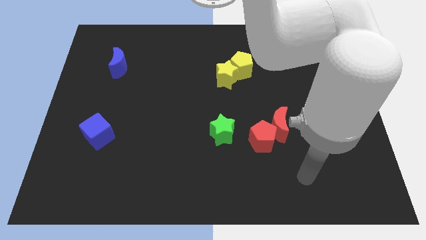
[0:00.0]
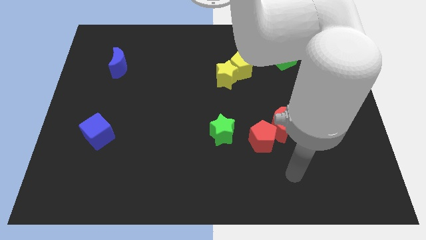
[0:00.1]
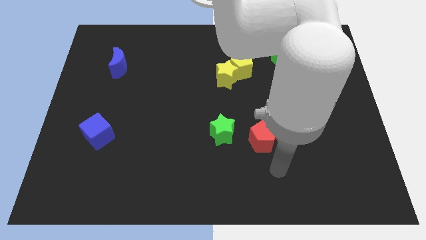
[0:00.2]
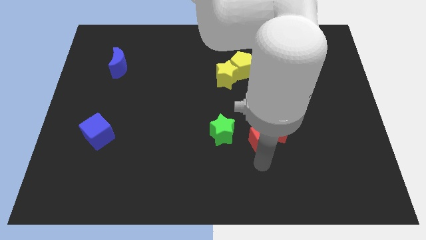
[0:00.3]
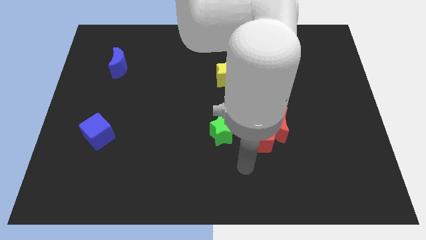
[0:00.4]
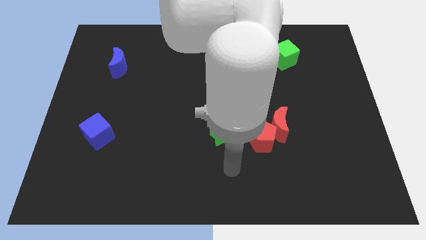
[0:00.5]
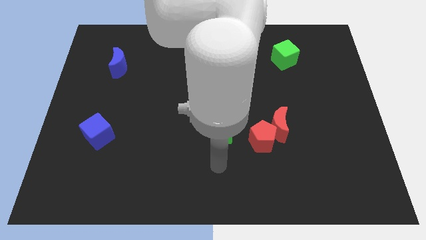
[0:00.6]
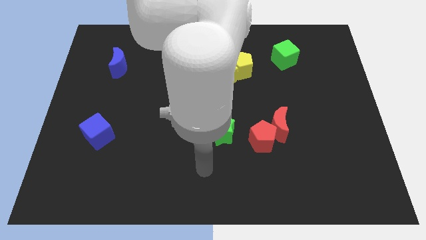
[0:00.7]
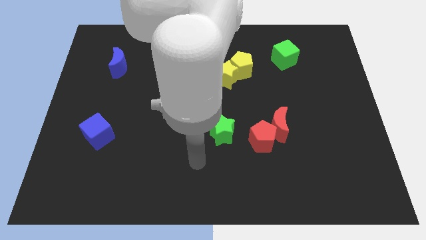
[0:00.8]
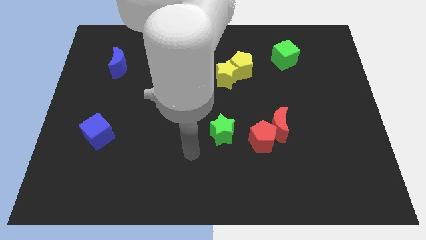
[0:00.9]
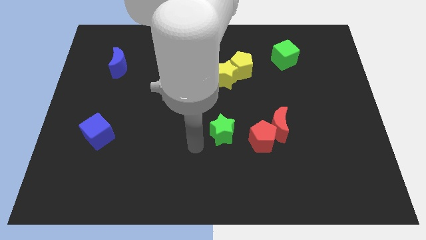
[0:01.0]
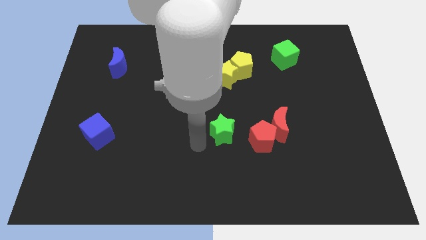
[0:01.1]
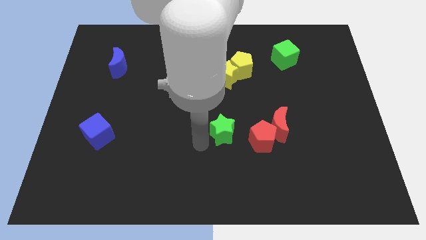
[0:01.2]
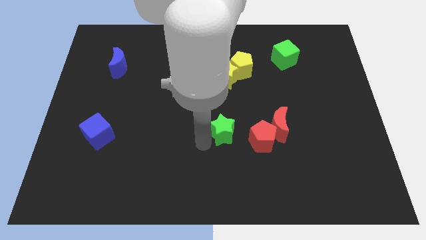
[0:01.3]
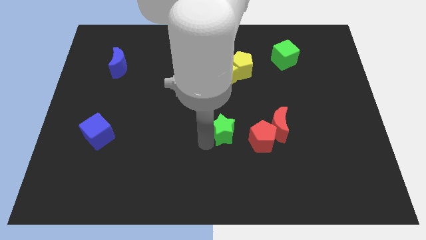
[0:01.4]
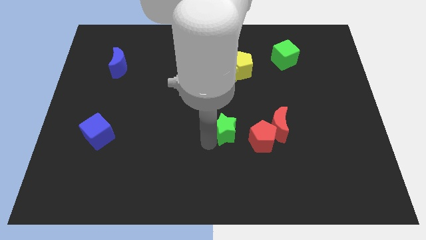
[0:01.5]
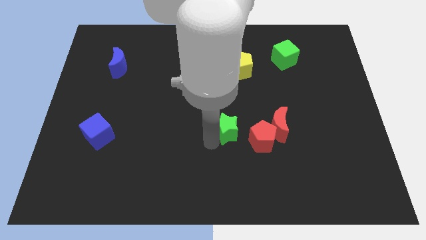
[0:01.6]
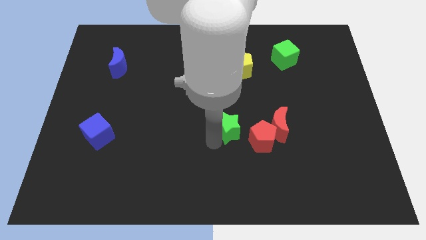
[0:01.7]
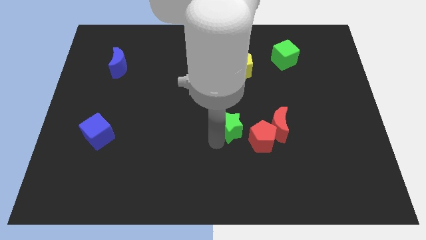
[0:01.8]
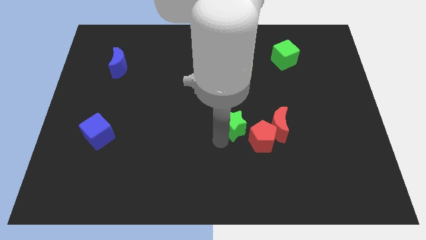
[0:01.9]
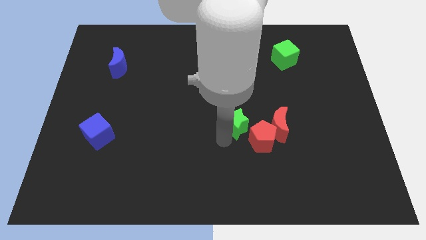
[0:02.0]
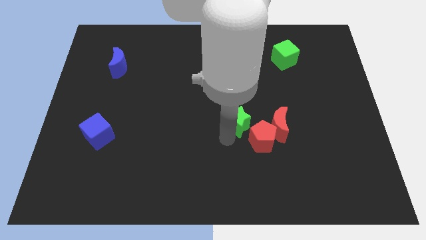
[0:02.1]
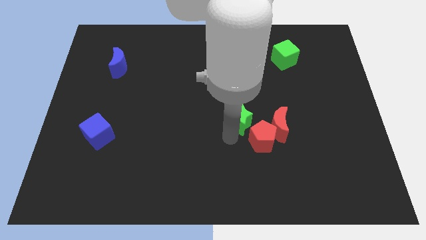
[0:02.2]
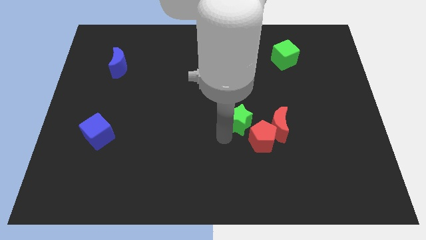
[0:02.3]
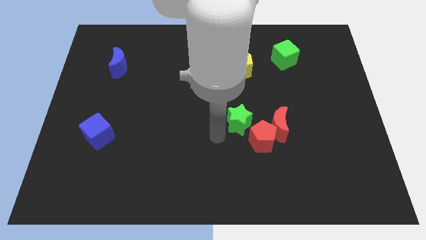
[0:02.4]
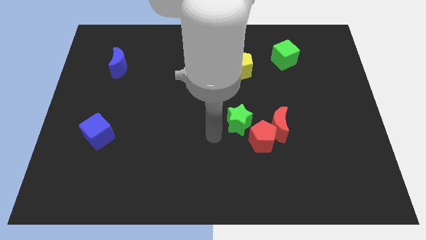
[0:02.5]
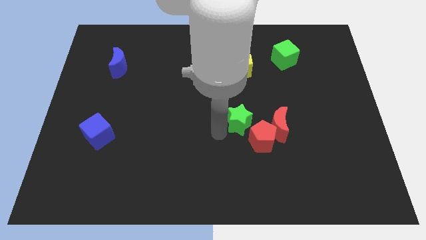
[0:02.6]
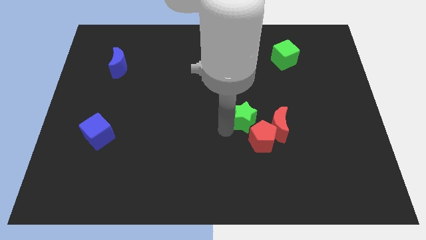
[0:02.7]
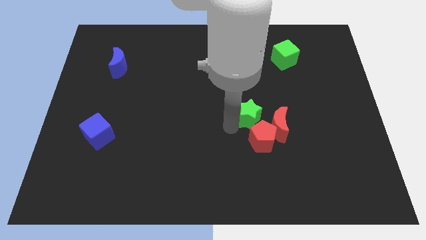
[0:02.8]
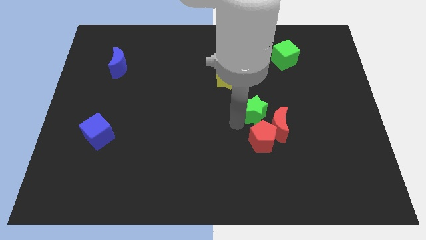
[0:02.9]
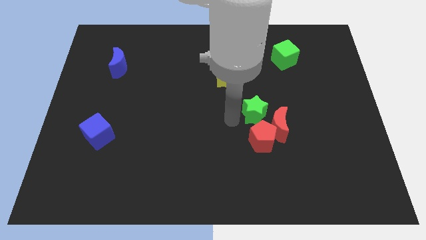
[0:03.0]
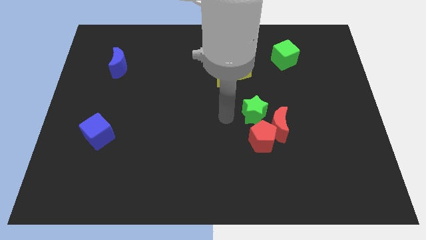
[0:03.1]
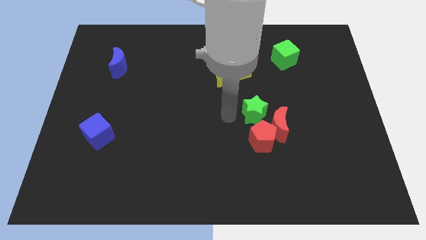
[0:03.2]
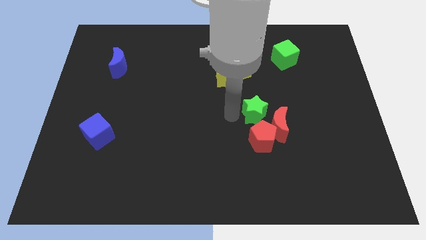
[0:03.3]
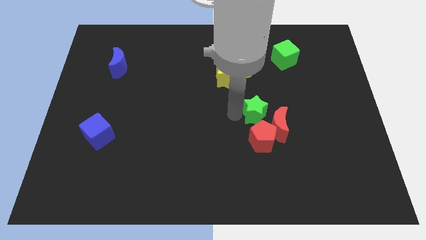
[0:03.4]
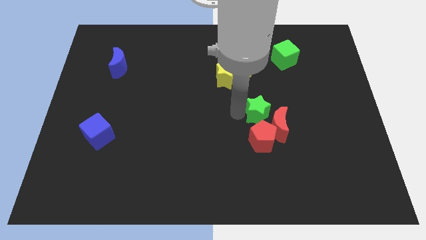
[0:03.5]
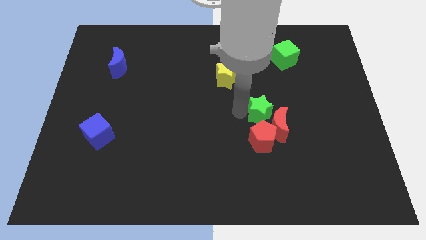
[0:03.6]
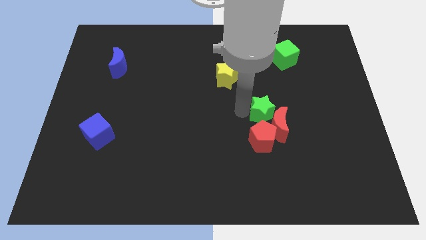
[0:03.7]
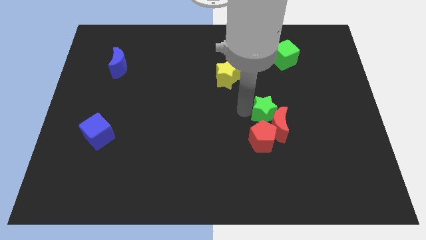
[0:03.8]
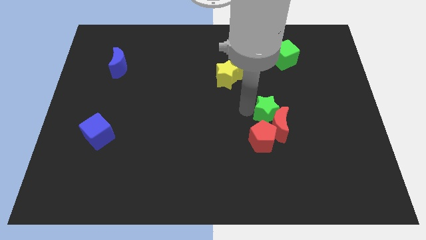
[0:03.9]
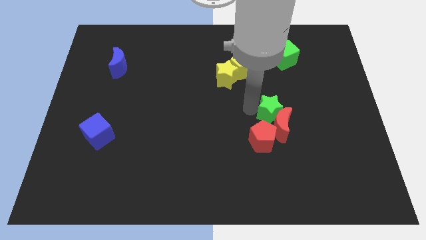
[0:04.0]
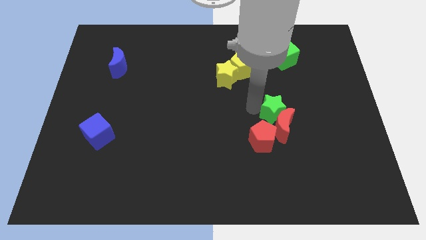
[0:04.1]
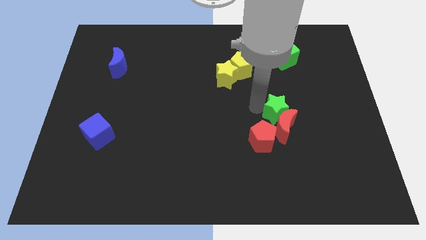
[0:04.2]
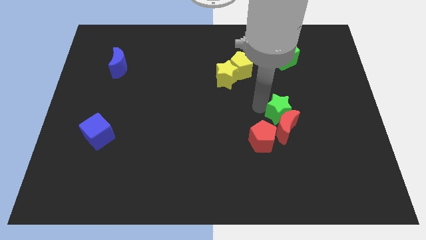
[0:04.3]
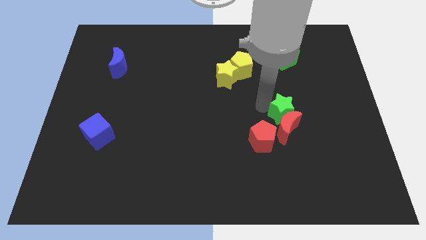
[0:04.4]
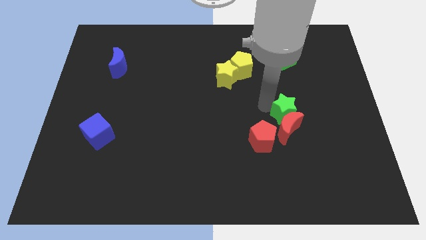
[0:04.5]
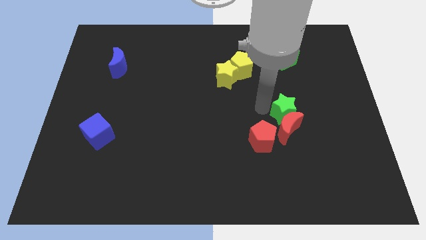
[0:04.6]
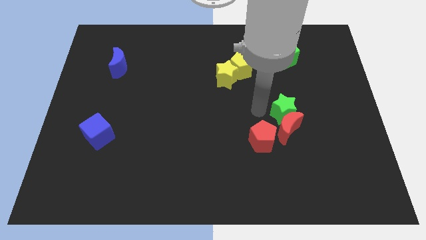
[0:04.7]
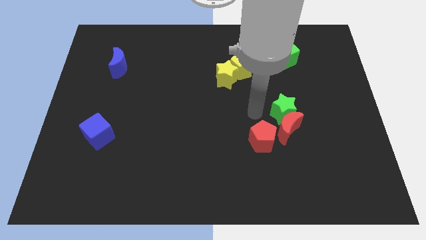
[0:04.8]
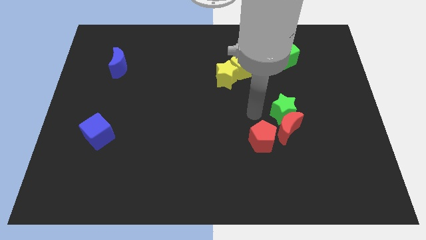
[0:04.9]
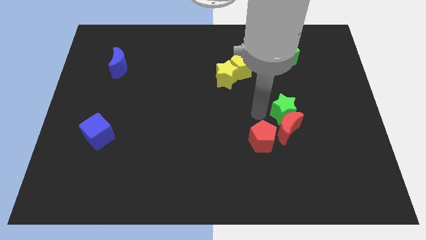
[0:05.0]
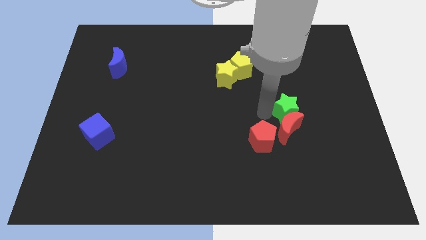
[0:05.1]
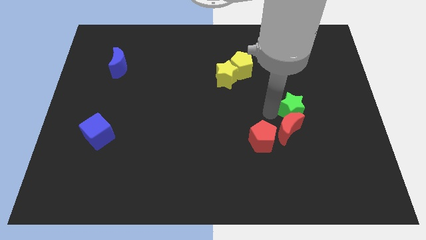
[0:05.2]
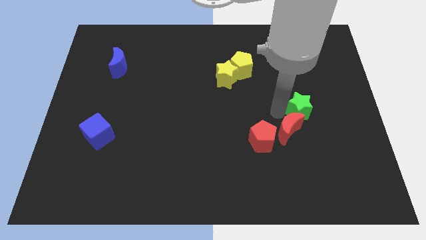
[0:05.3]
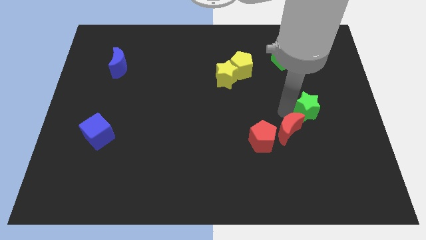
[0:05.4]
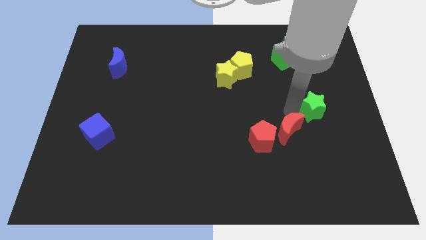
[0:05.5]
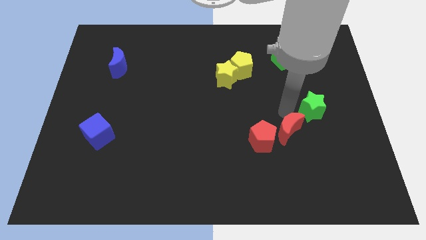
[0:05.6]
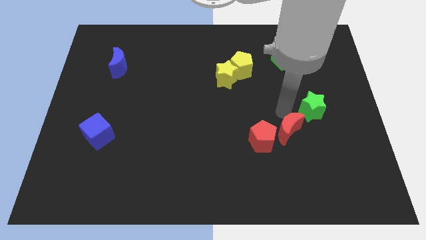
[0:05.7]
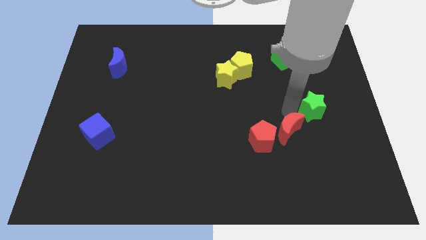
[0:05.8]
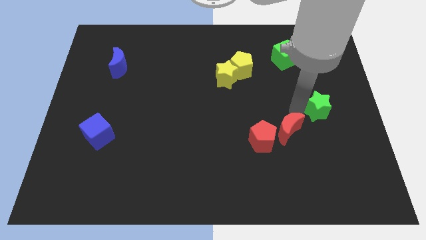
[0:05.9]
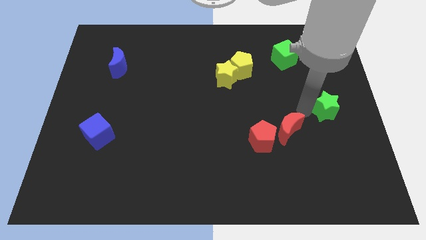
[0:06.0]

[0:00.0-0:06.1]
slide the green star to the center right

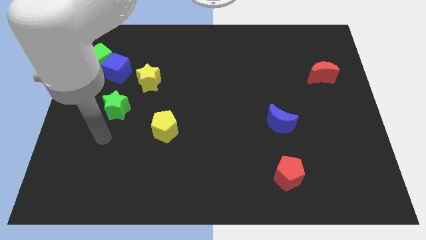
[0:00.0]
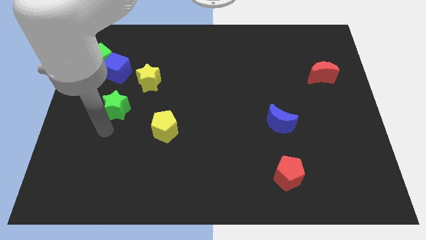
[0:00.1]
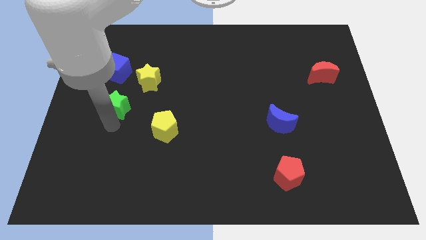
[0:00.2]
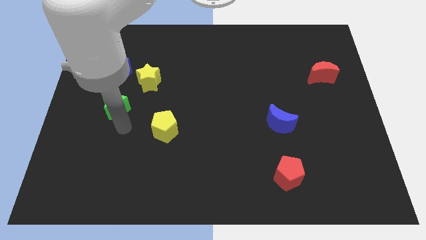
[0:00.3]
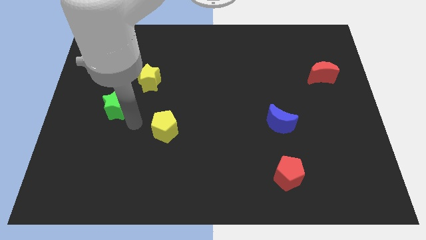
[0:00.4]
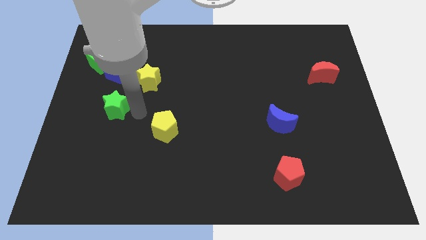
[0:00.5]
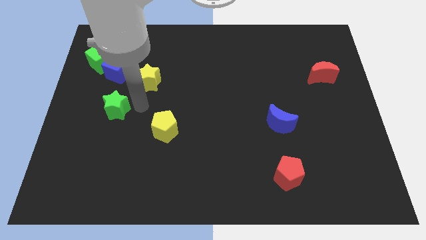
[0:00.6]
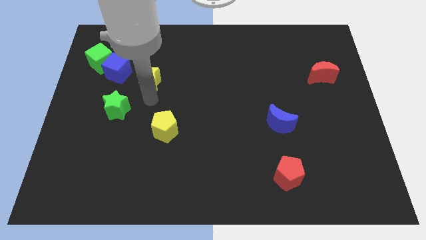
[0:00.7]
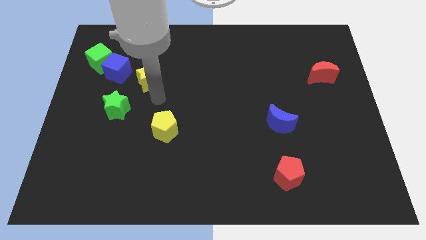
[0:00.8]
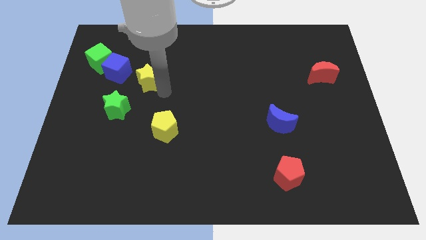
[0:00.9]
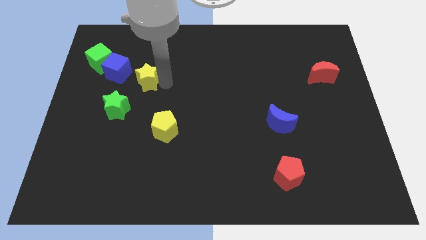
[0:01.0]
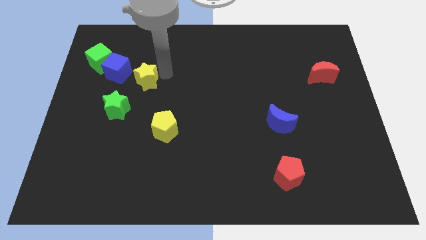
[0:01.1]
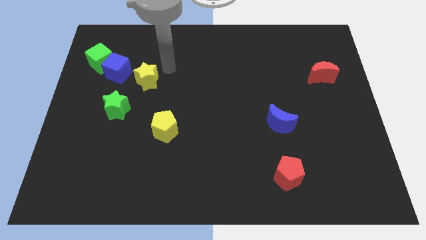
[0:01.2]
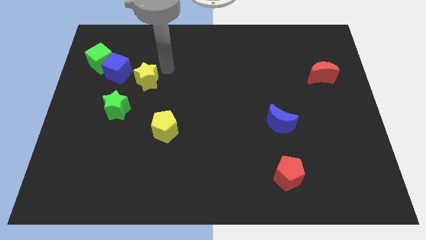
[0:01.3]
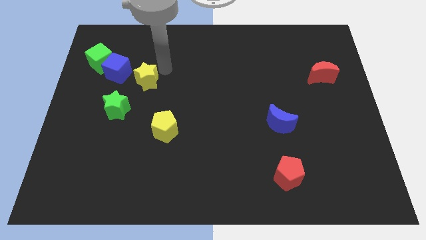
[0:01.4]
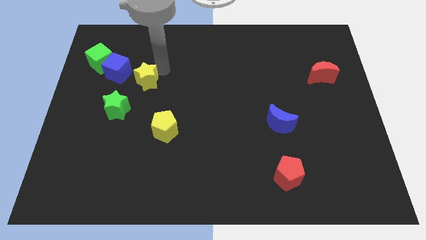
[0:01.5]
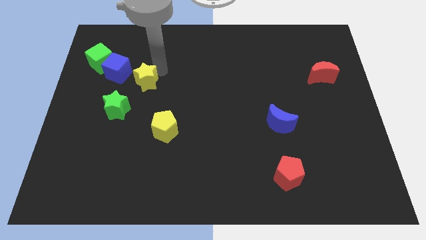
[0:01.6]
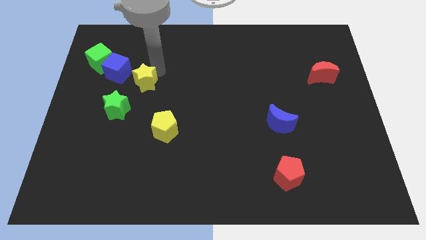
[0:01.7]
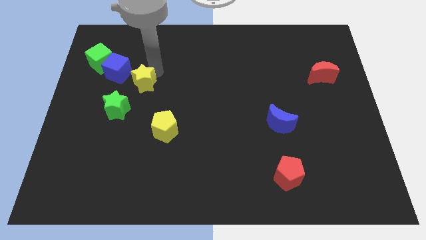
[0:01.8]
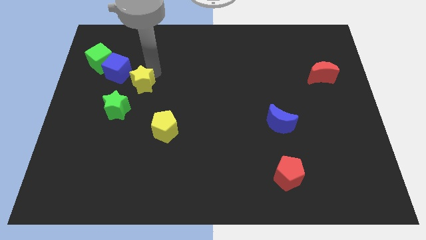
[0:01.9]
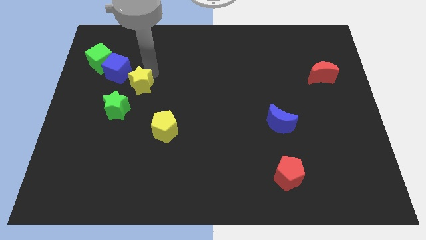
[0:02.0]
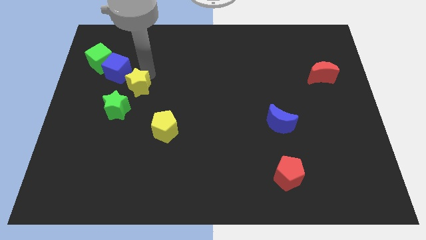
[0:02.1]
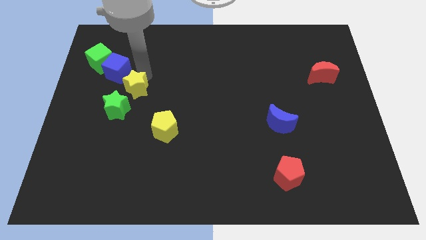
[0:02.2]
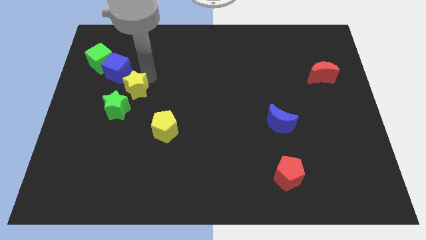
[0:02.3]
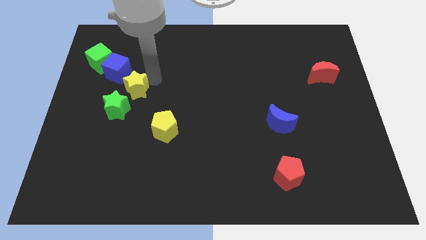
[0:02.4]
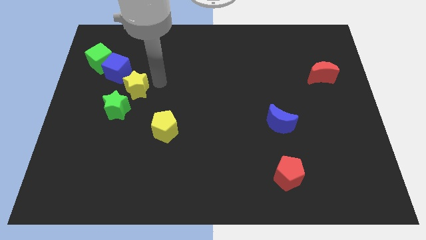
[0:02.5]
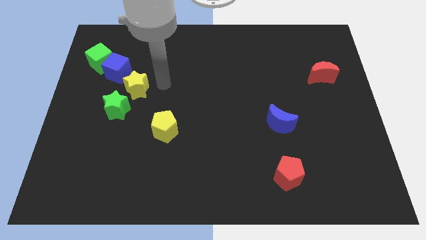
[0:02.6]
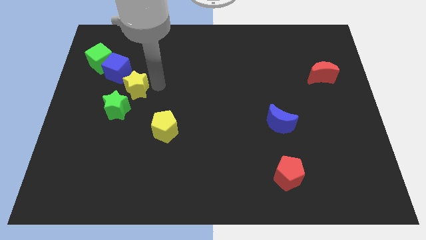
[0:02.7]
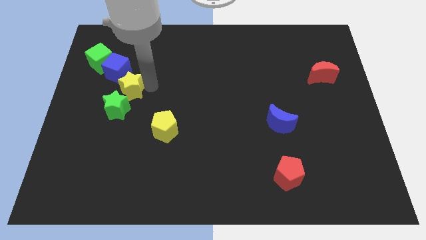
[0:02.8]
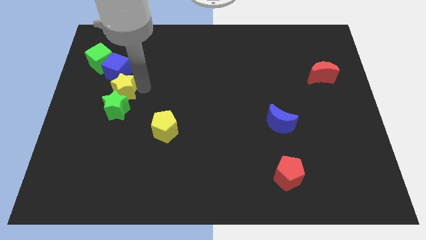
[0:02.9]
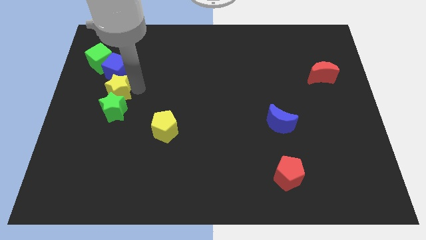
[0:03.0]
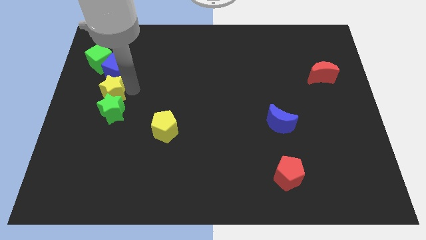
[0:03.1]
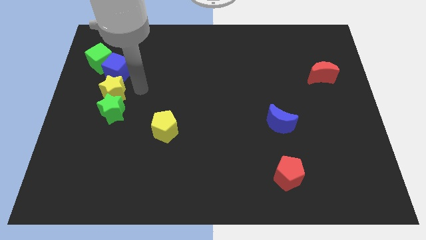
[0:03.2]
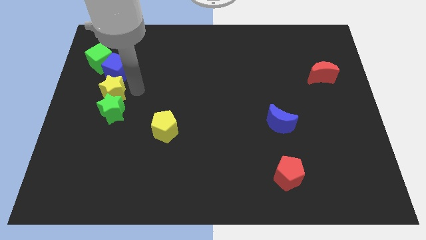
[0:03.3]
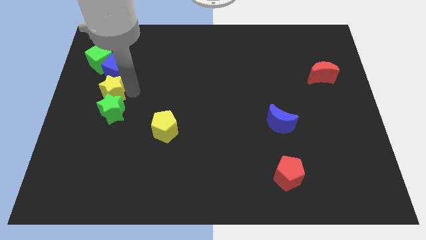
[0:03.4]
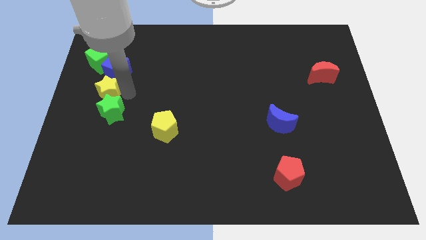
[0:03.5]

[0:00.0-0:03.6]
slide the yellow star to the left side
